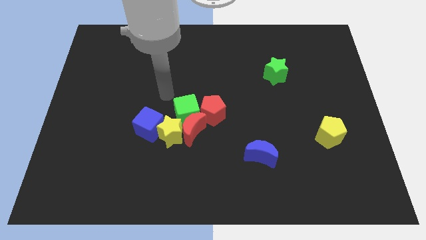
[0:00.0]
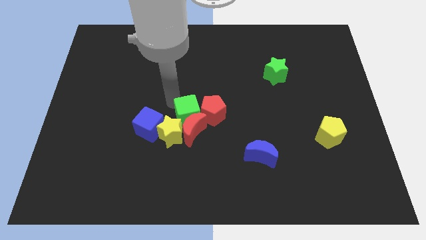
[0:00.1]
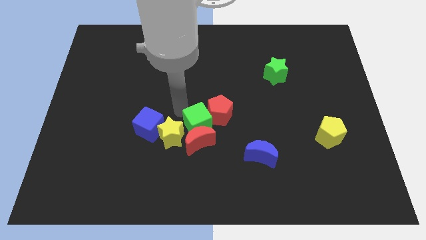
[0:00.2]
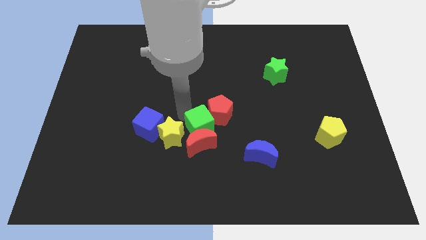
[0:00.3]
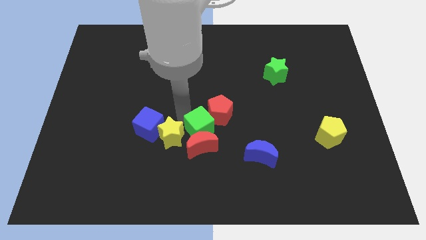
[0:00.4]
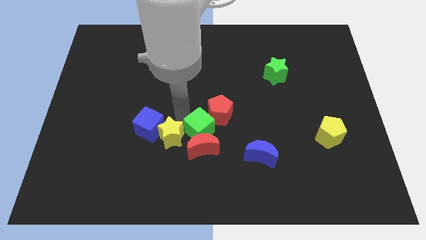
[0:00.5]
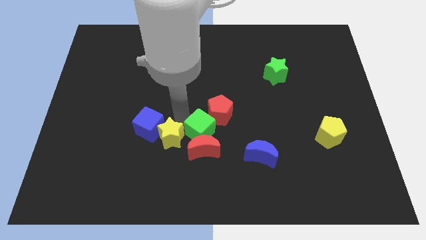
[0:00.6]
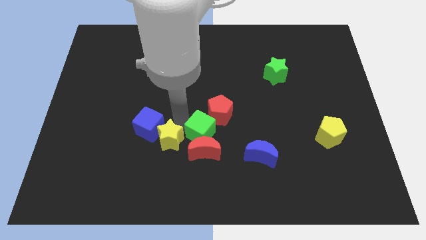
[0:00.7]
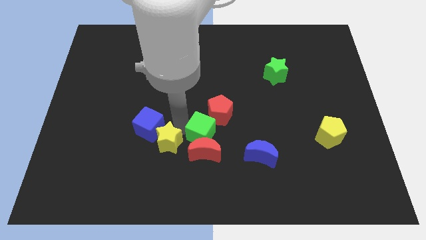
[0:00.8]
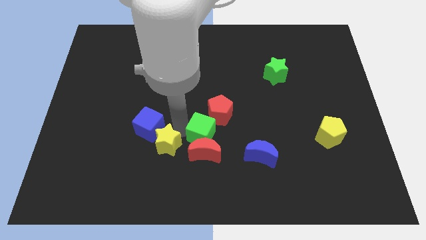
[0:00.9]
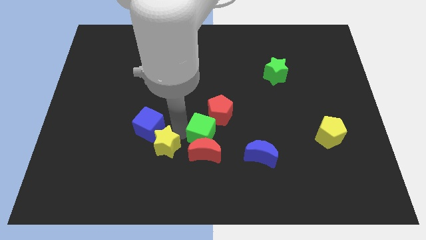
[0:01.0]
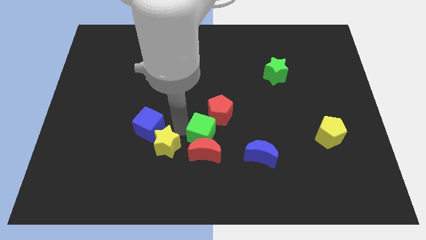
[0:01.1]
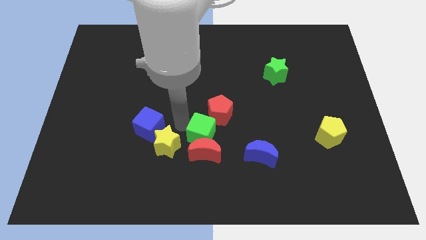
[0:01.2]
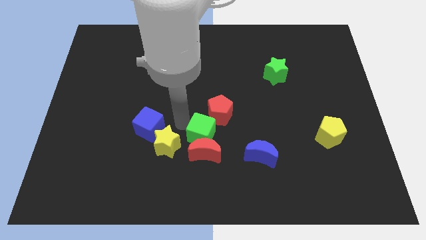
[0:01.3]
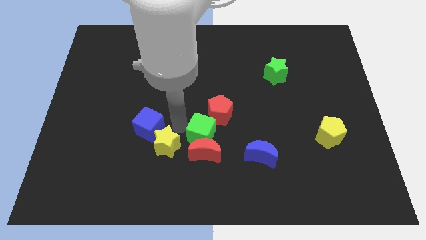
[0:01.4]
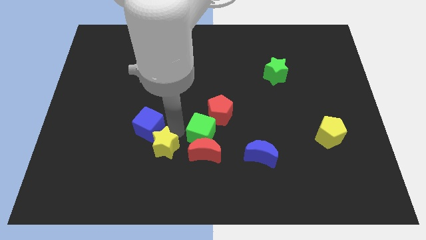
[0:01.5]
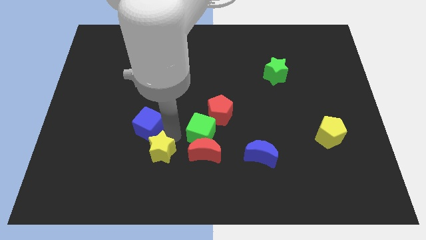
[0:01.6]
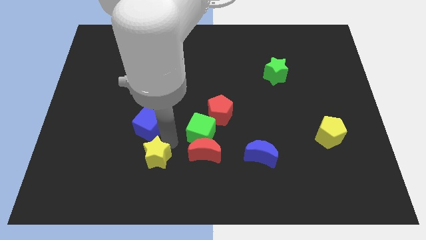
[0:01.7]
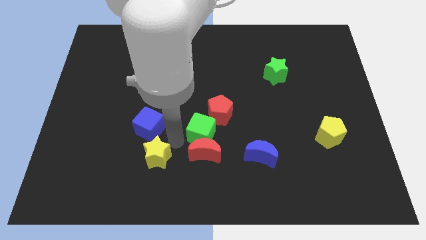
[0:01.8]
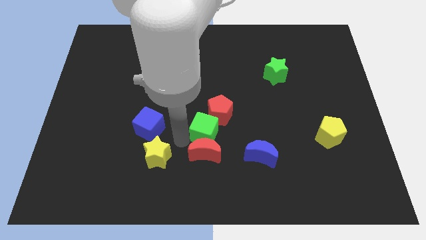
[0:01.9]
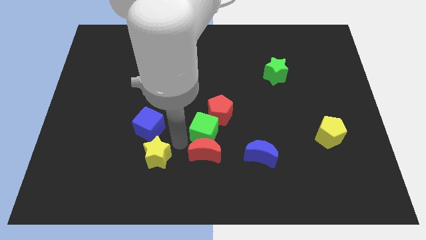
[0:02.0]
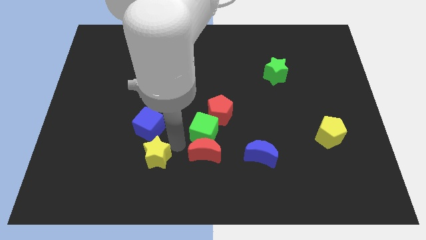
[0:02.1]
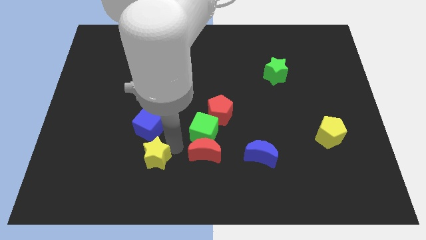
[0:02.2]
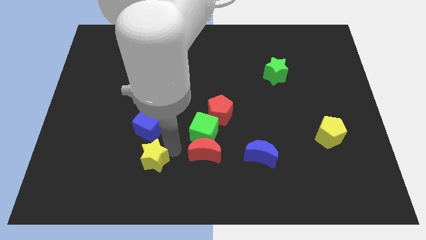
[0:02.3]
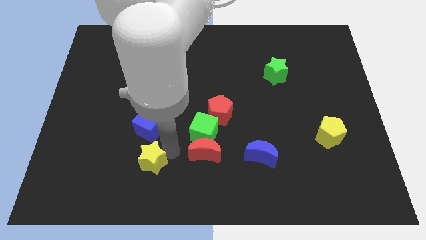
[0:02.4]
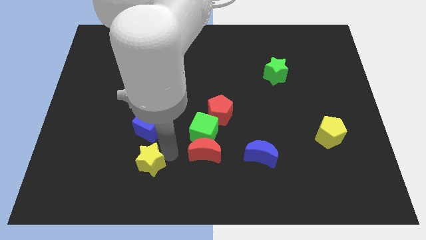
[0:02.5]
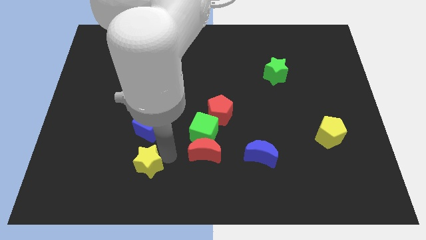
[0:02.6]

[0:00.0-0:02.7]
move the yellow star away from the red moon, blue cube, and green cube

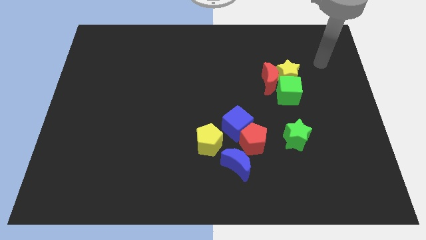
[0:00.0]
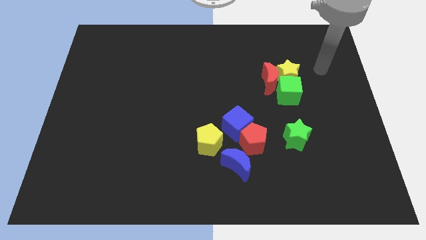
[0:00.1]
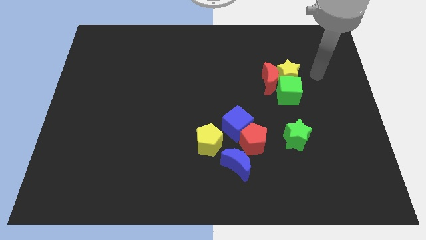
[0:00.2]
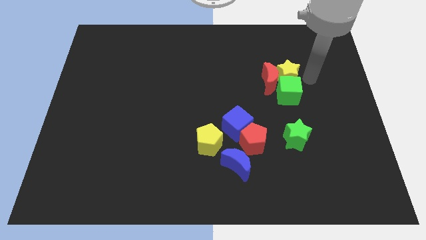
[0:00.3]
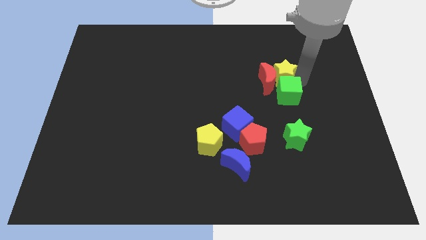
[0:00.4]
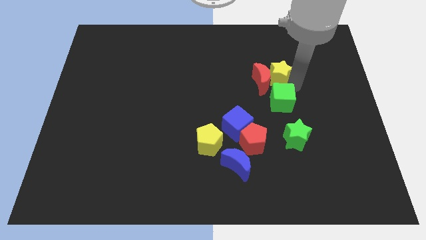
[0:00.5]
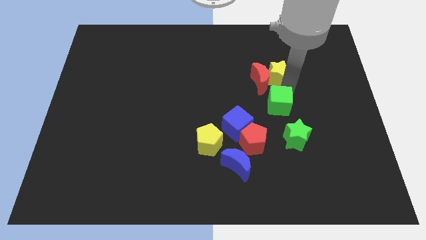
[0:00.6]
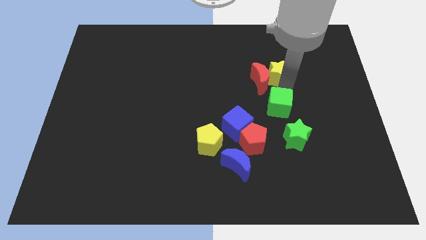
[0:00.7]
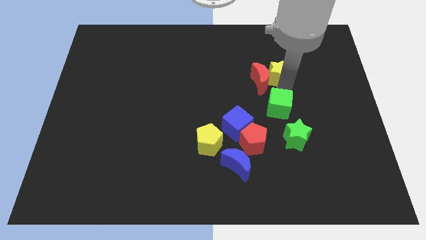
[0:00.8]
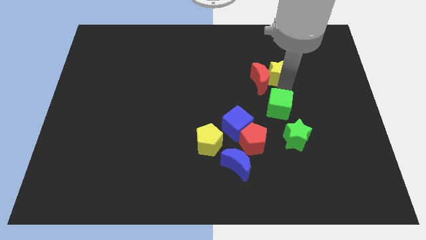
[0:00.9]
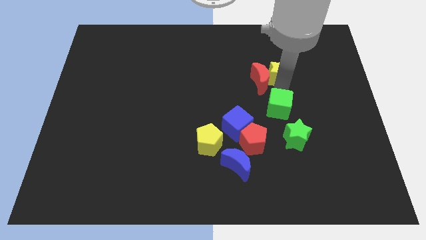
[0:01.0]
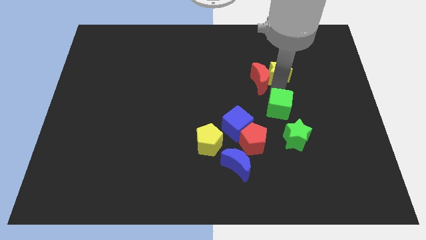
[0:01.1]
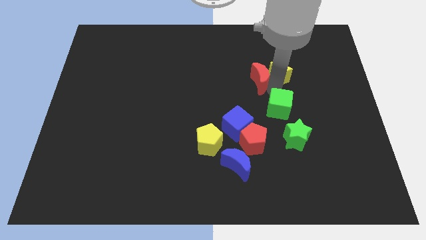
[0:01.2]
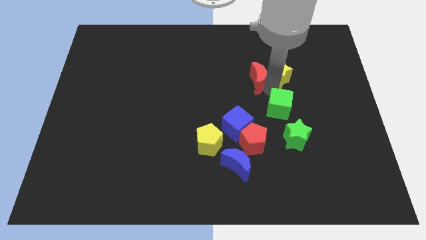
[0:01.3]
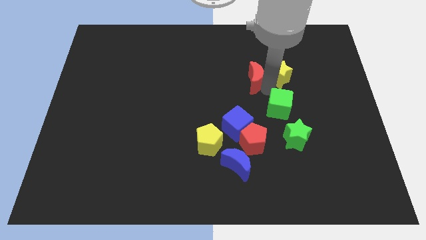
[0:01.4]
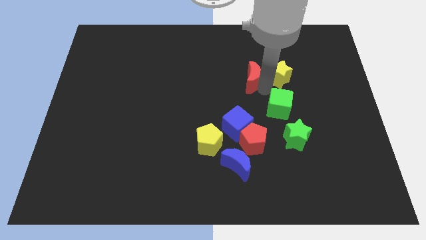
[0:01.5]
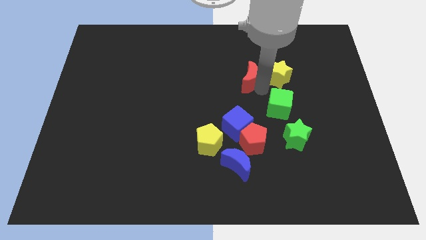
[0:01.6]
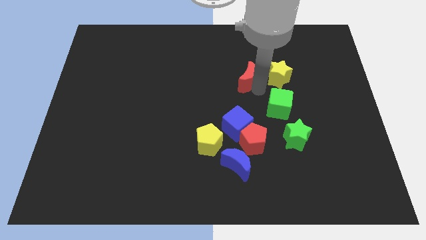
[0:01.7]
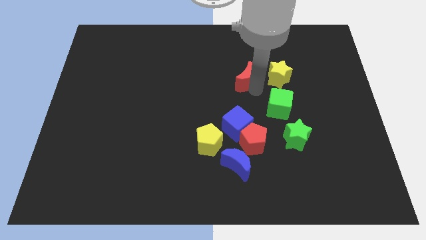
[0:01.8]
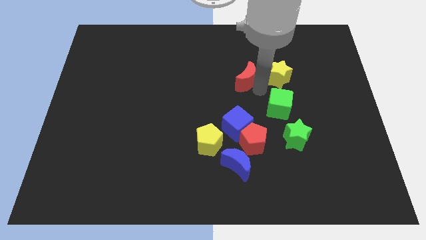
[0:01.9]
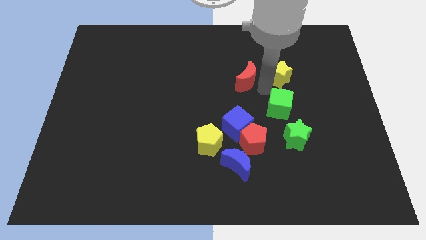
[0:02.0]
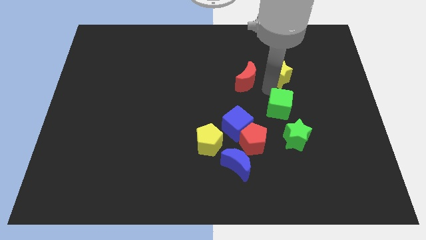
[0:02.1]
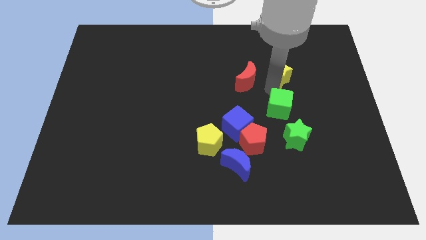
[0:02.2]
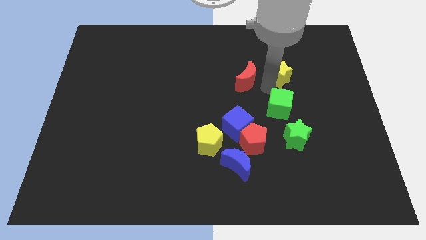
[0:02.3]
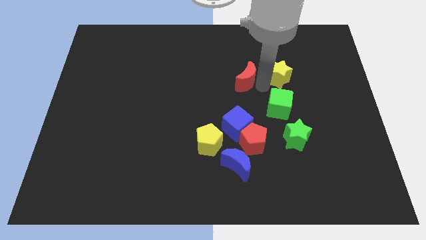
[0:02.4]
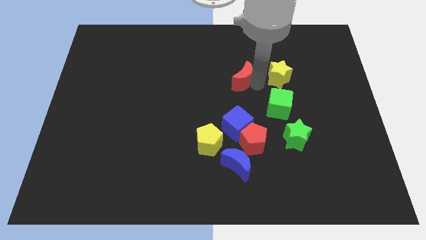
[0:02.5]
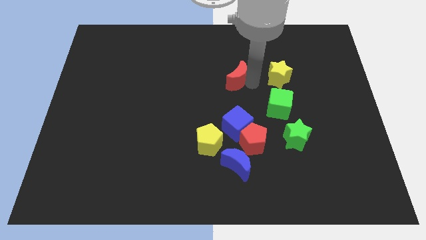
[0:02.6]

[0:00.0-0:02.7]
pull the red moon apart from the yellow star and green cube

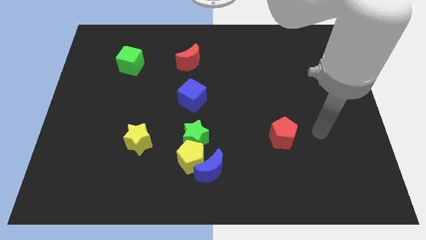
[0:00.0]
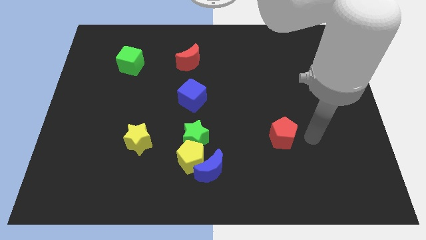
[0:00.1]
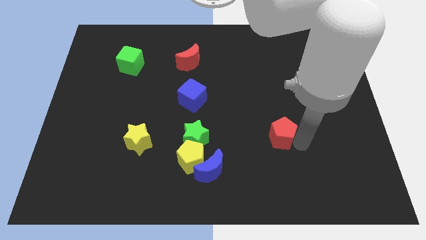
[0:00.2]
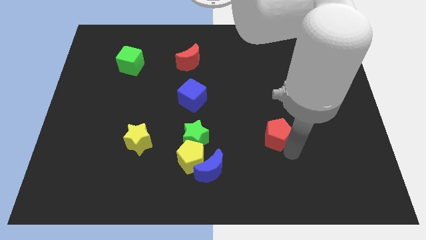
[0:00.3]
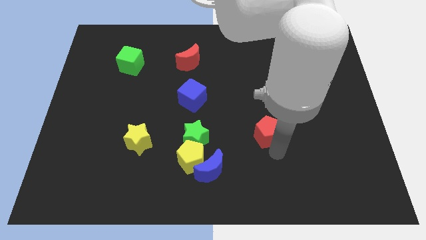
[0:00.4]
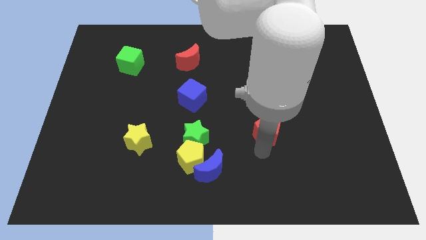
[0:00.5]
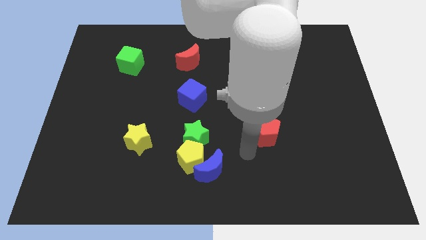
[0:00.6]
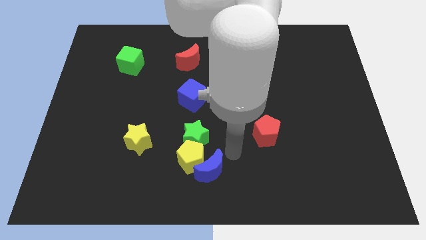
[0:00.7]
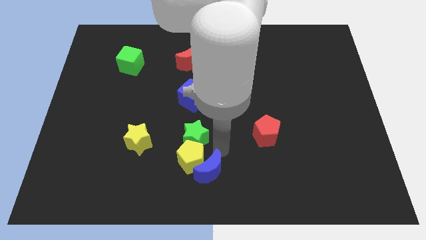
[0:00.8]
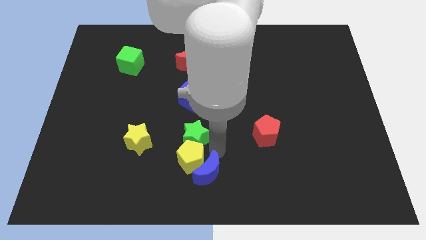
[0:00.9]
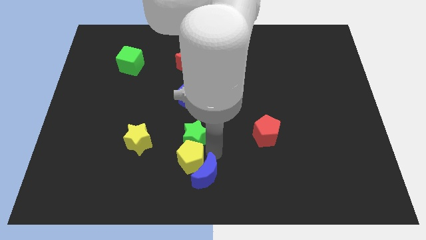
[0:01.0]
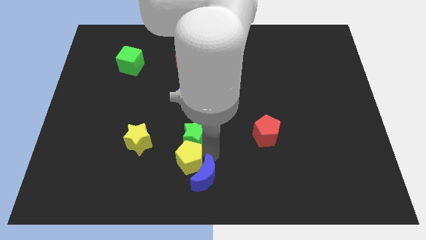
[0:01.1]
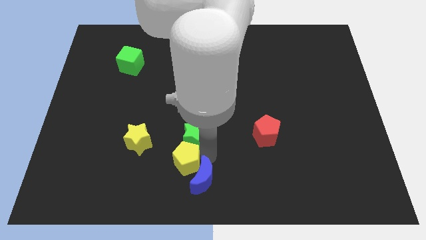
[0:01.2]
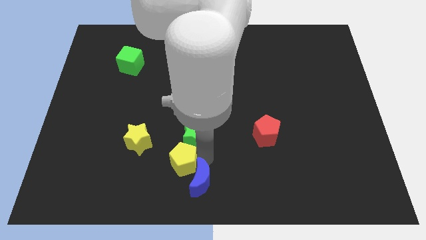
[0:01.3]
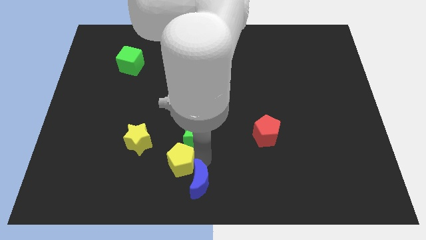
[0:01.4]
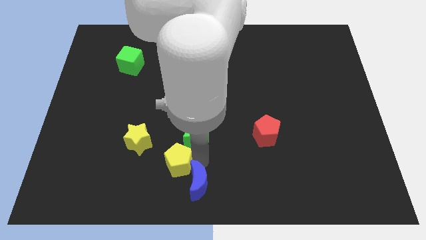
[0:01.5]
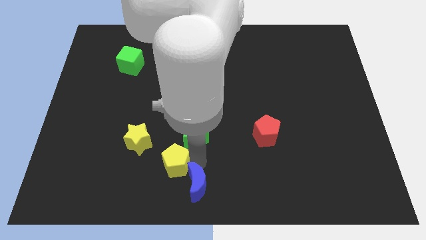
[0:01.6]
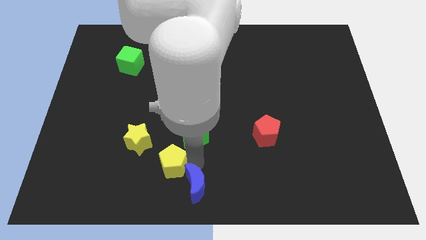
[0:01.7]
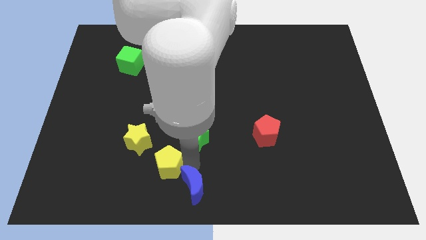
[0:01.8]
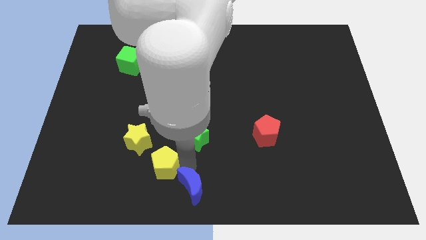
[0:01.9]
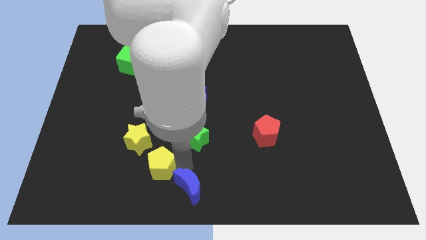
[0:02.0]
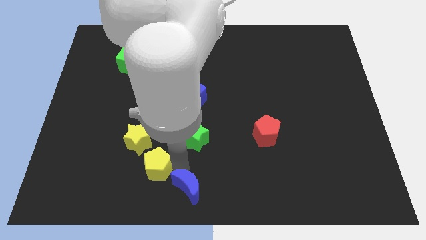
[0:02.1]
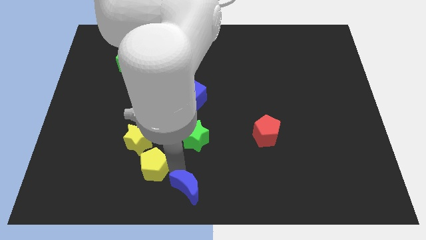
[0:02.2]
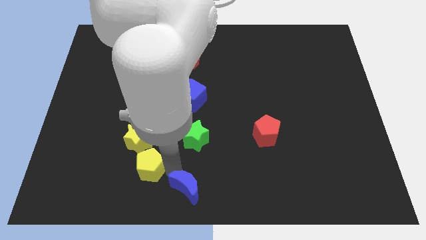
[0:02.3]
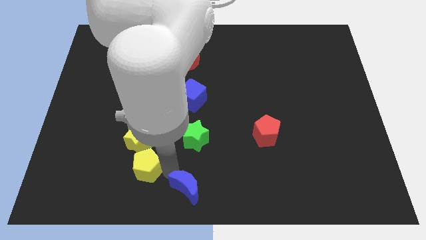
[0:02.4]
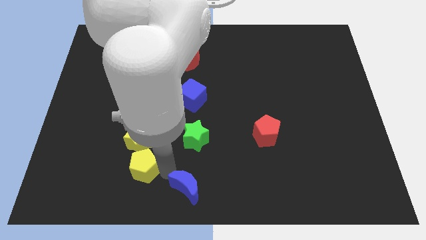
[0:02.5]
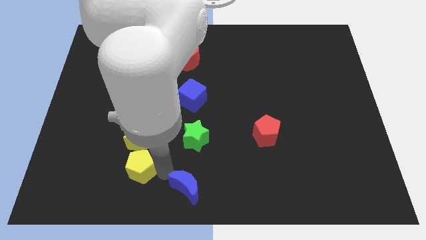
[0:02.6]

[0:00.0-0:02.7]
separate the yellow pentagon from the green star and blue moon

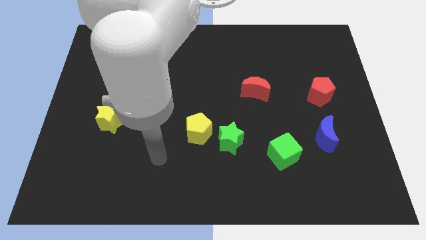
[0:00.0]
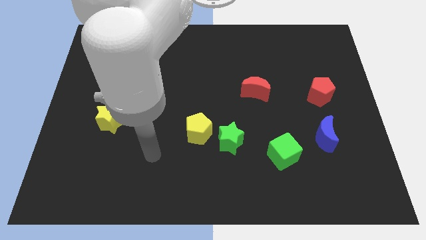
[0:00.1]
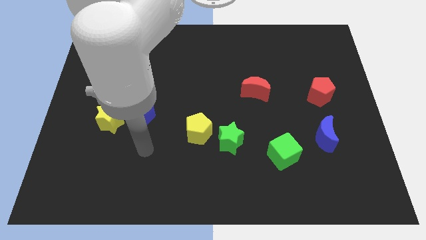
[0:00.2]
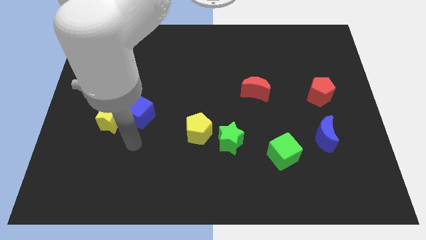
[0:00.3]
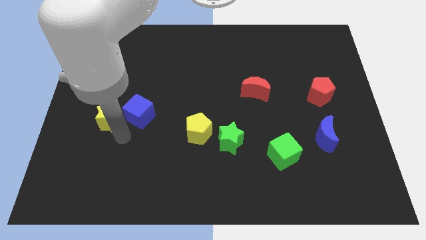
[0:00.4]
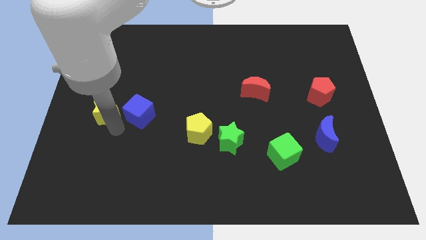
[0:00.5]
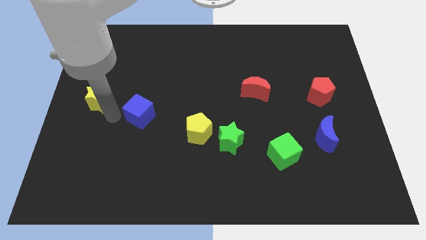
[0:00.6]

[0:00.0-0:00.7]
pull the blue cube apart from the yellow star

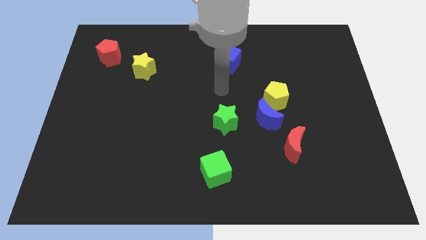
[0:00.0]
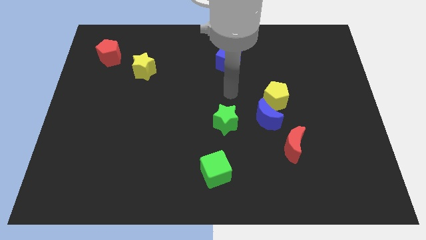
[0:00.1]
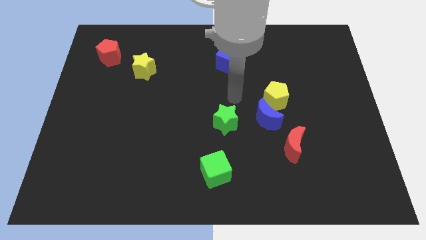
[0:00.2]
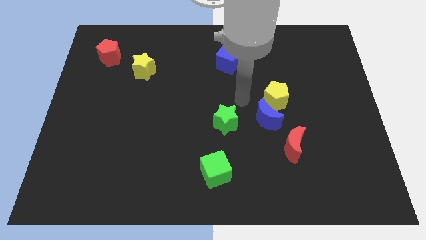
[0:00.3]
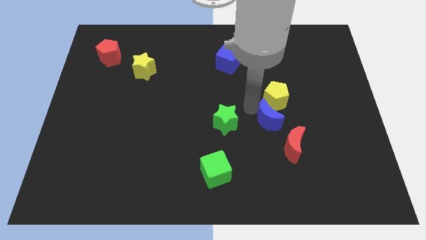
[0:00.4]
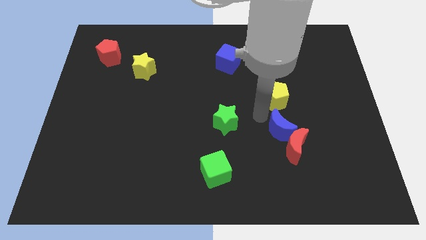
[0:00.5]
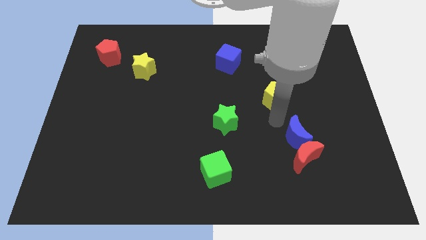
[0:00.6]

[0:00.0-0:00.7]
pull the yellow pentagon apart from the blue moon
